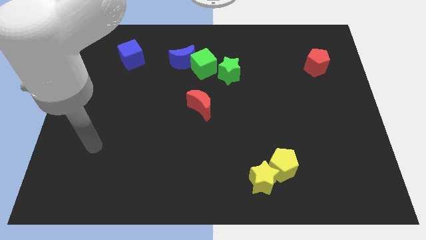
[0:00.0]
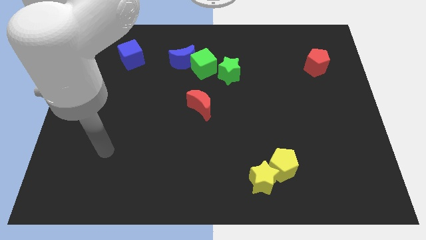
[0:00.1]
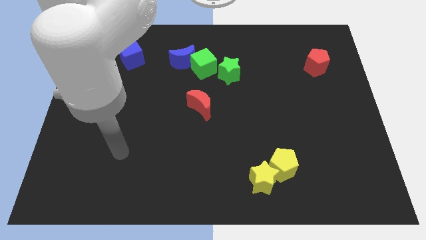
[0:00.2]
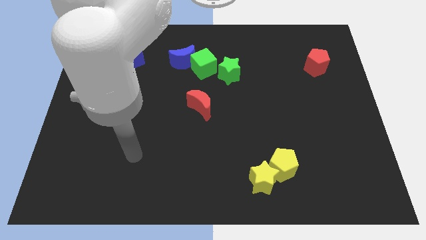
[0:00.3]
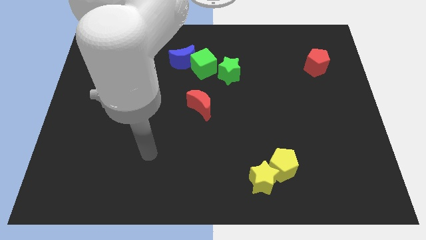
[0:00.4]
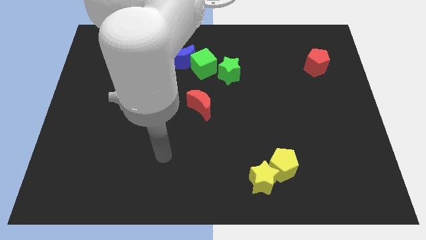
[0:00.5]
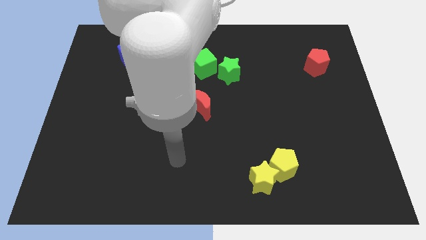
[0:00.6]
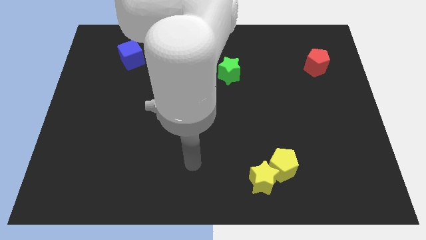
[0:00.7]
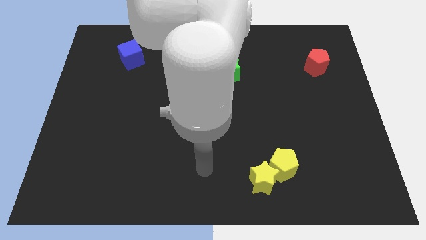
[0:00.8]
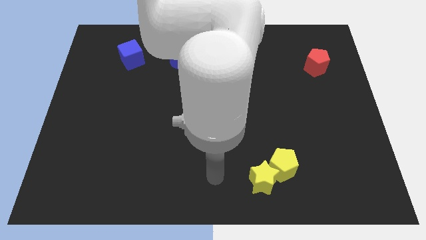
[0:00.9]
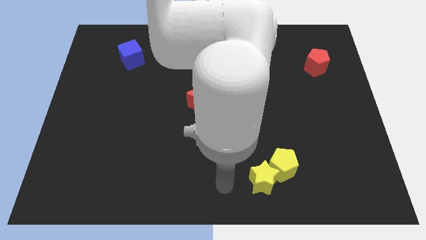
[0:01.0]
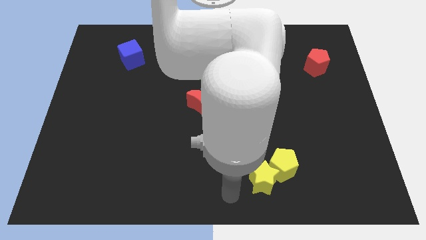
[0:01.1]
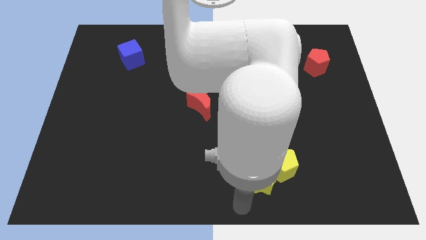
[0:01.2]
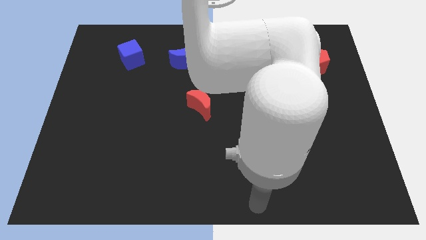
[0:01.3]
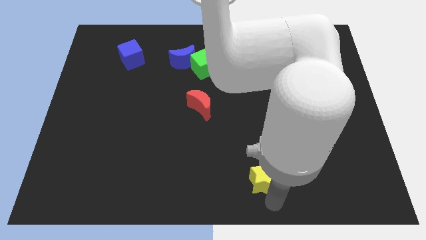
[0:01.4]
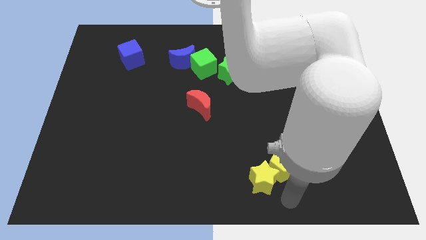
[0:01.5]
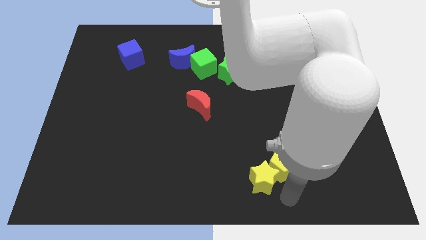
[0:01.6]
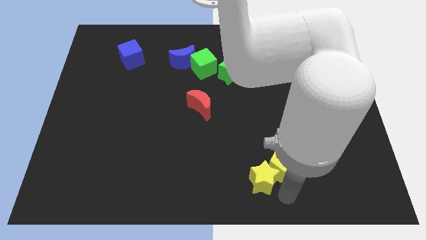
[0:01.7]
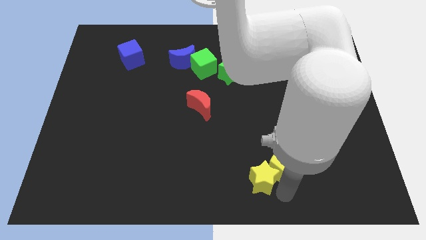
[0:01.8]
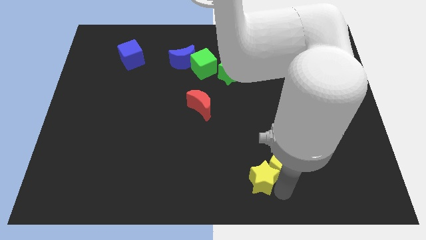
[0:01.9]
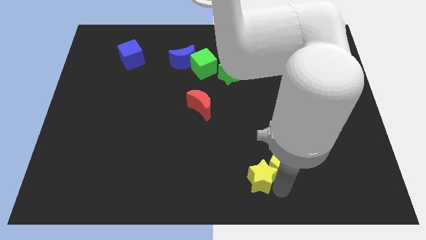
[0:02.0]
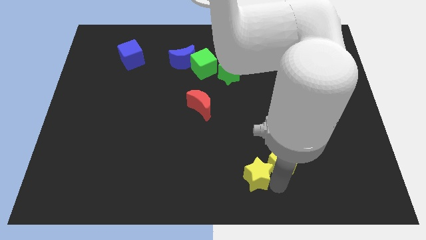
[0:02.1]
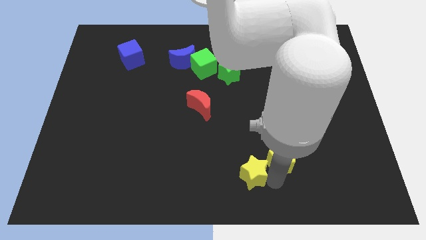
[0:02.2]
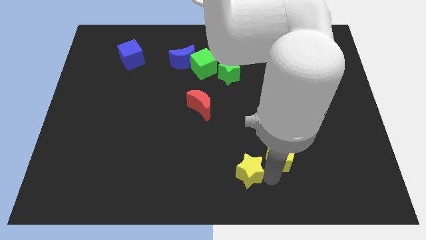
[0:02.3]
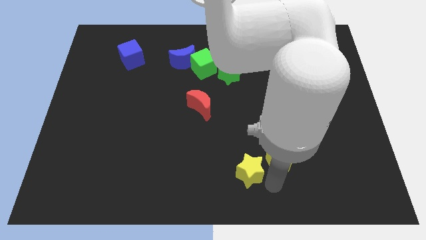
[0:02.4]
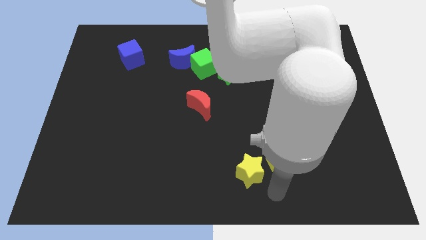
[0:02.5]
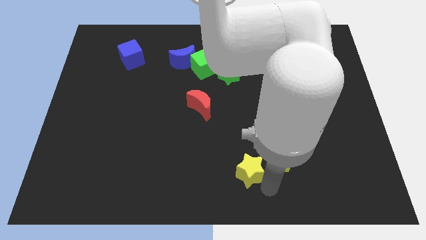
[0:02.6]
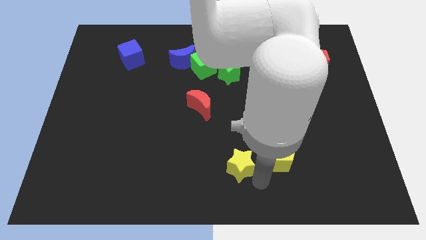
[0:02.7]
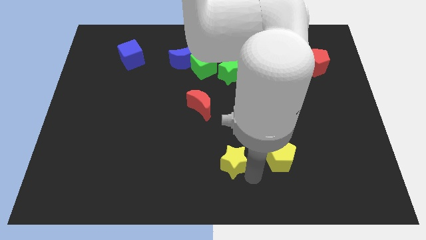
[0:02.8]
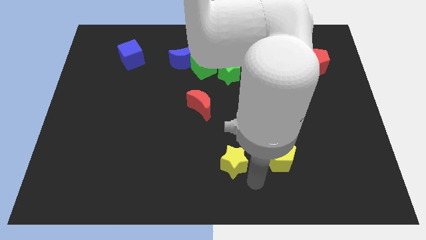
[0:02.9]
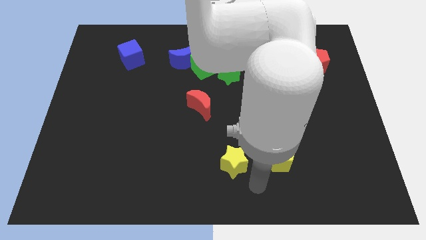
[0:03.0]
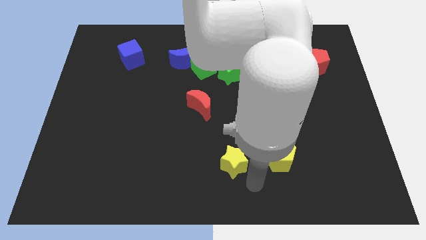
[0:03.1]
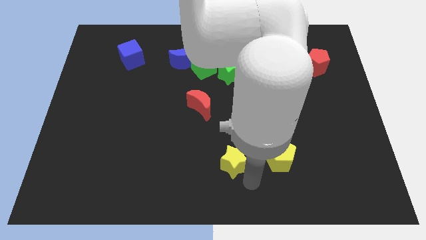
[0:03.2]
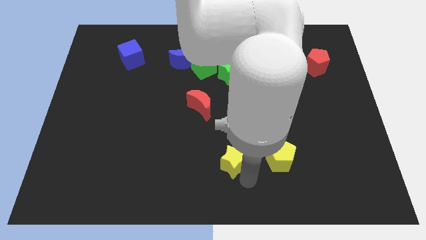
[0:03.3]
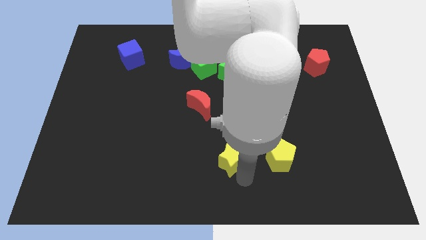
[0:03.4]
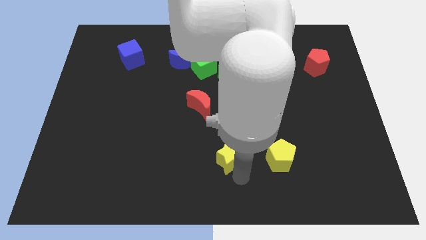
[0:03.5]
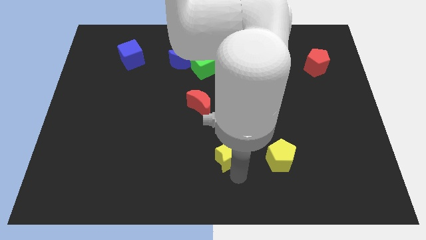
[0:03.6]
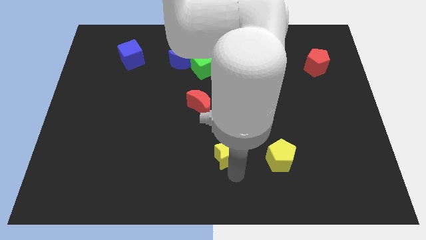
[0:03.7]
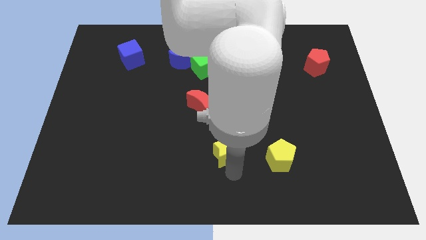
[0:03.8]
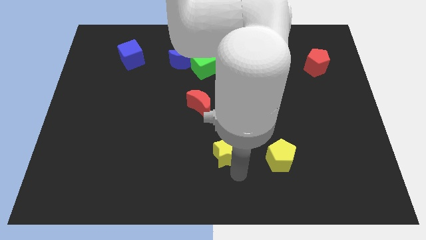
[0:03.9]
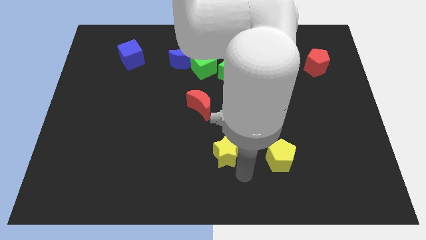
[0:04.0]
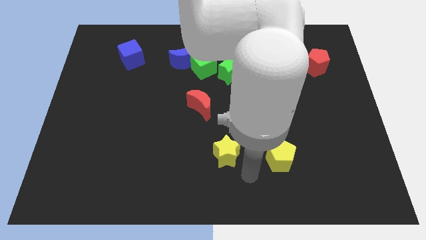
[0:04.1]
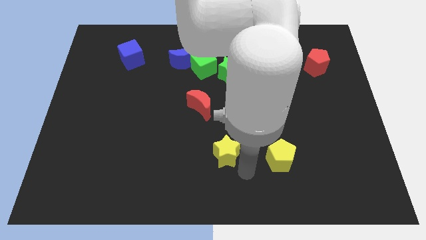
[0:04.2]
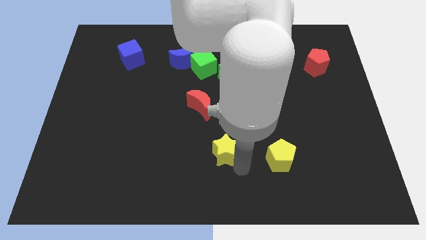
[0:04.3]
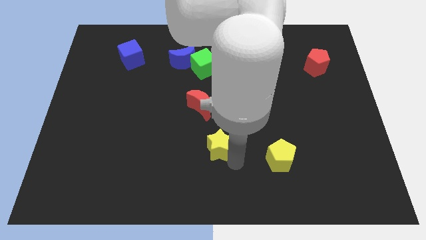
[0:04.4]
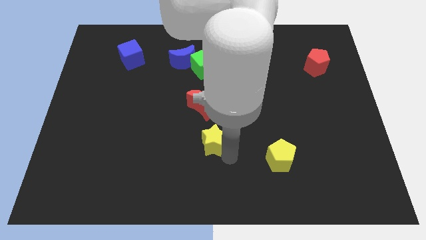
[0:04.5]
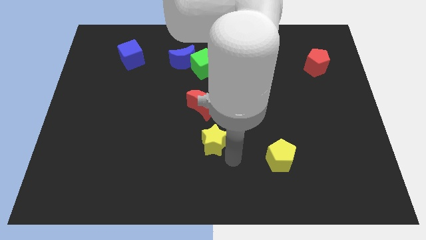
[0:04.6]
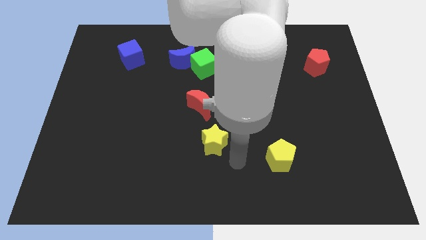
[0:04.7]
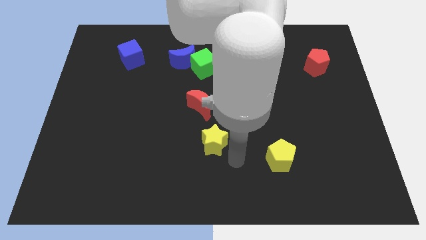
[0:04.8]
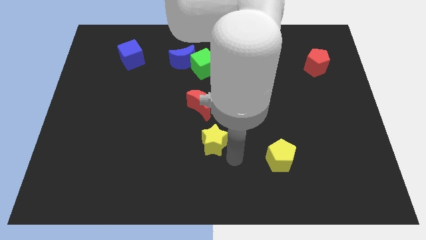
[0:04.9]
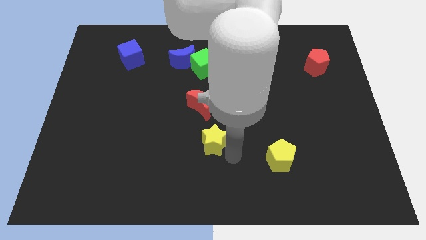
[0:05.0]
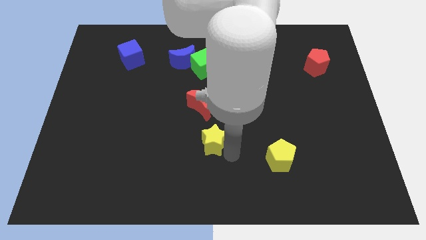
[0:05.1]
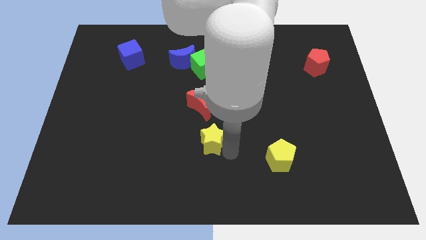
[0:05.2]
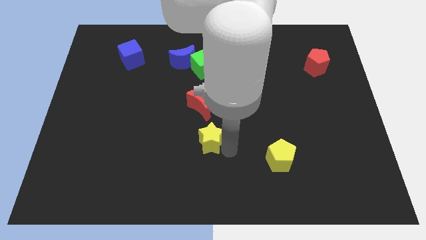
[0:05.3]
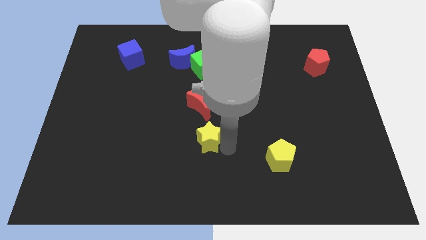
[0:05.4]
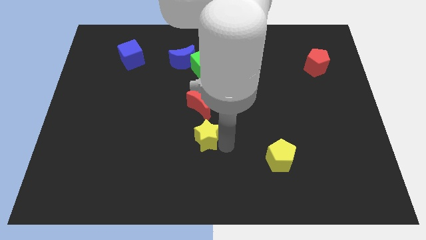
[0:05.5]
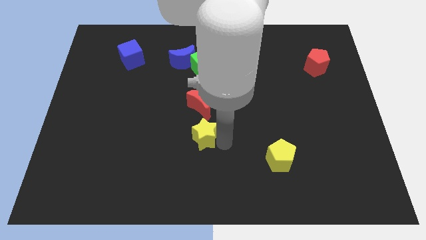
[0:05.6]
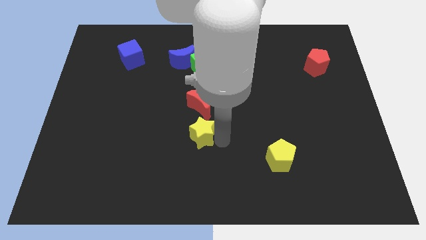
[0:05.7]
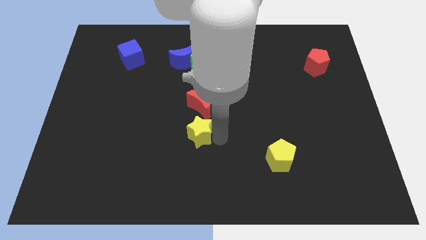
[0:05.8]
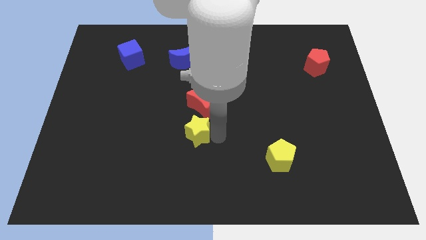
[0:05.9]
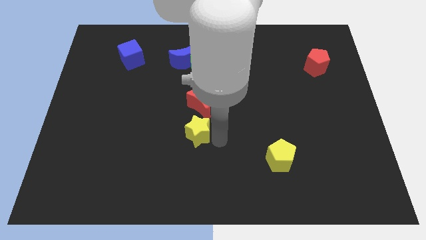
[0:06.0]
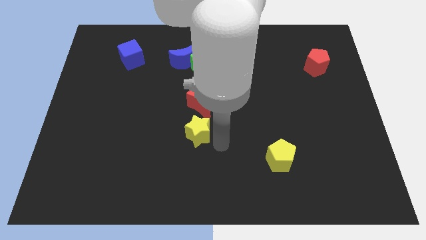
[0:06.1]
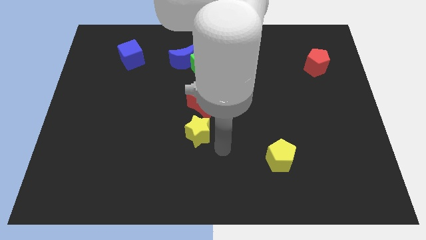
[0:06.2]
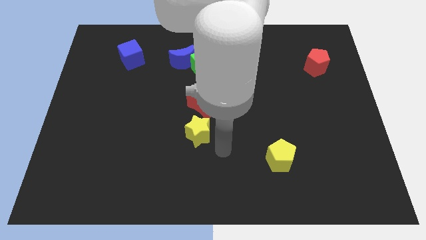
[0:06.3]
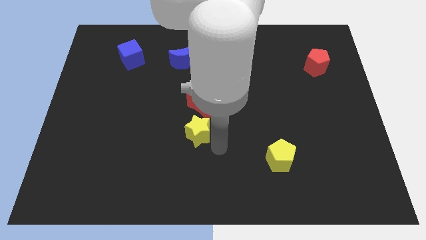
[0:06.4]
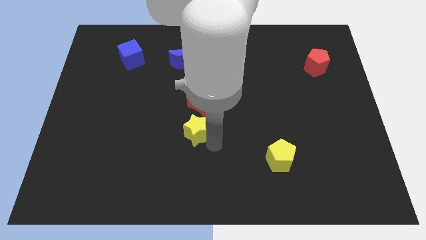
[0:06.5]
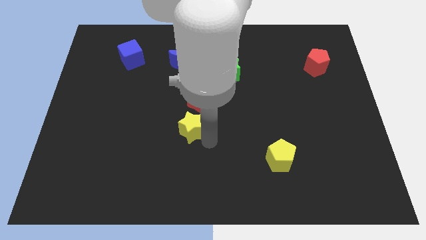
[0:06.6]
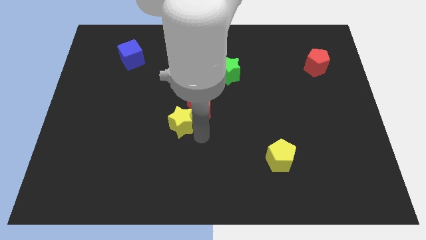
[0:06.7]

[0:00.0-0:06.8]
push the yellow star up and then to the left

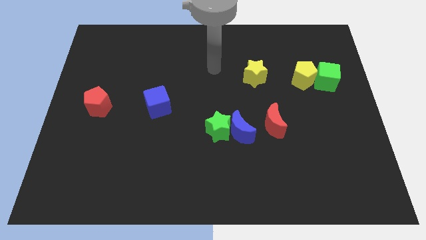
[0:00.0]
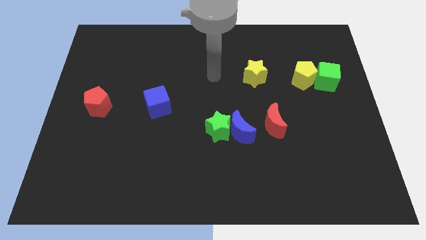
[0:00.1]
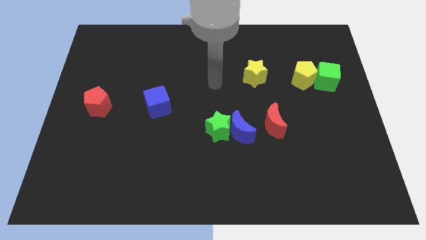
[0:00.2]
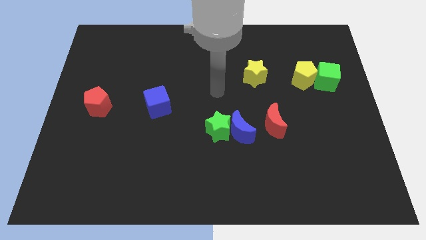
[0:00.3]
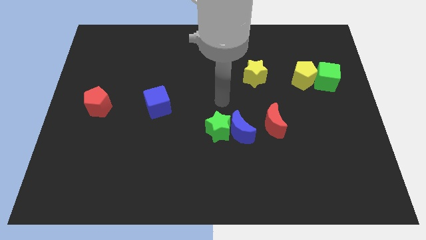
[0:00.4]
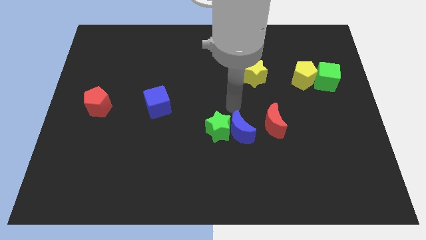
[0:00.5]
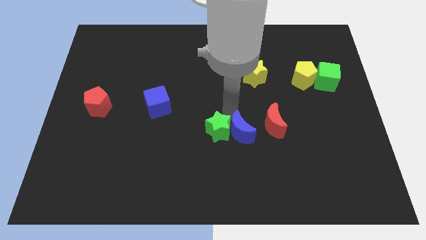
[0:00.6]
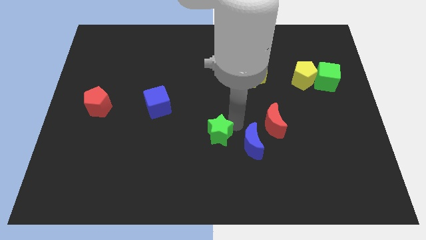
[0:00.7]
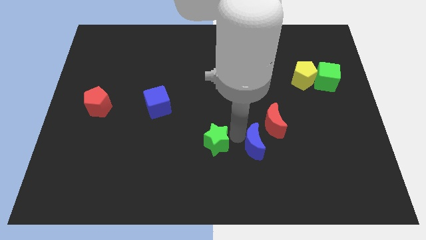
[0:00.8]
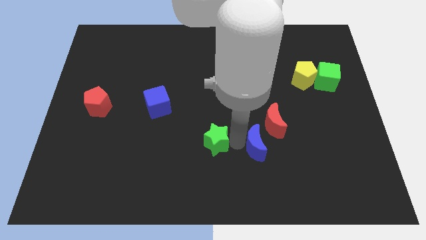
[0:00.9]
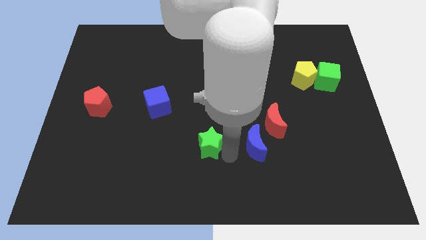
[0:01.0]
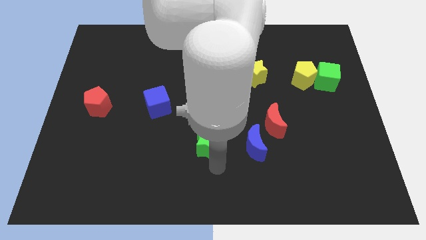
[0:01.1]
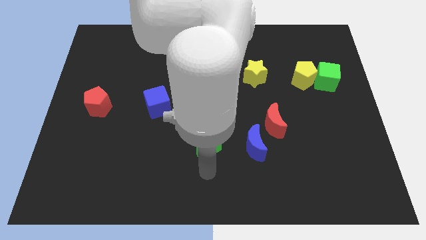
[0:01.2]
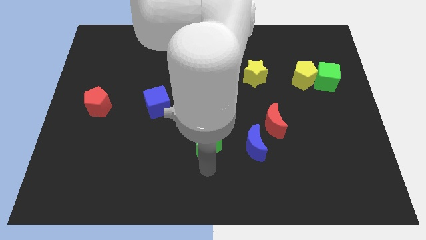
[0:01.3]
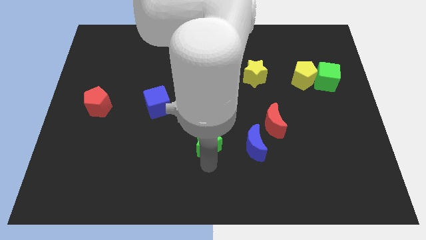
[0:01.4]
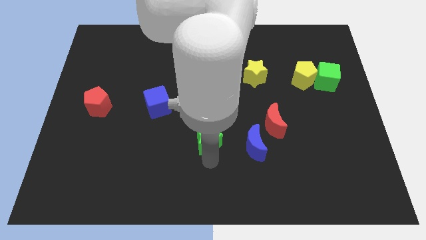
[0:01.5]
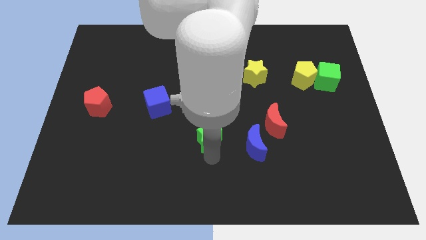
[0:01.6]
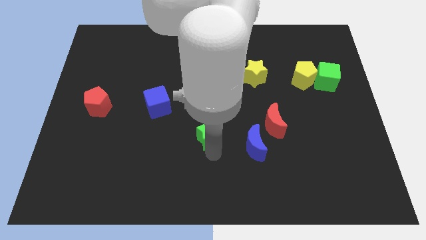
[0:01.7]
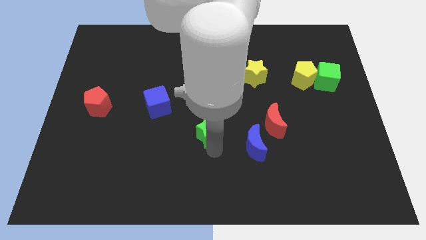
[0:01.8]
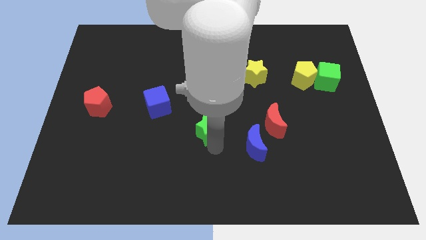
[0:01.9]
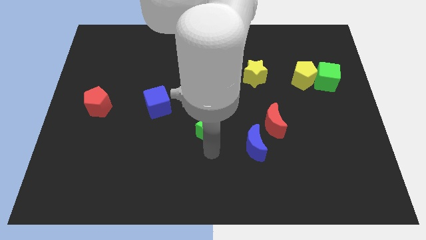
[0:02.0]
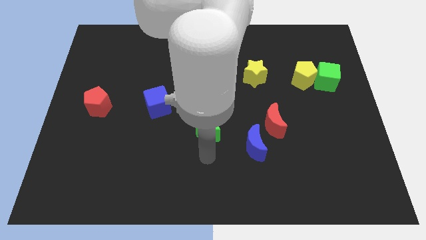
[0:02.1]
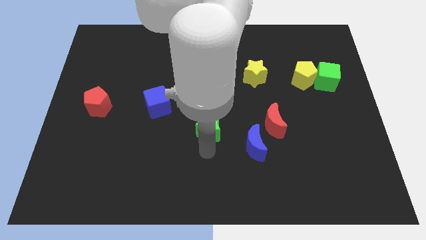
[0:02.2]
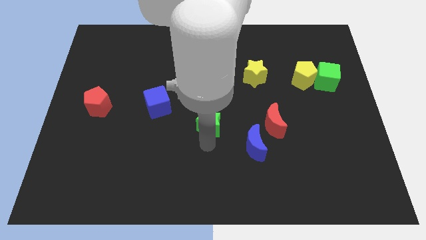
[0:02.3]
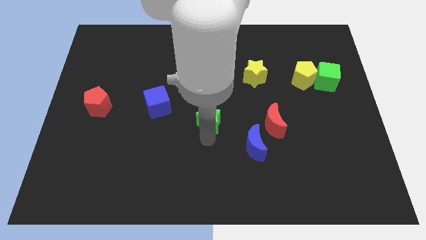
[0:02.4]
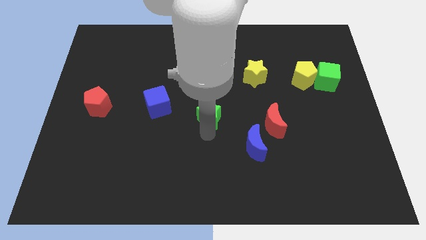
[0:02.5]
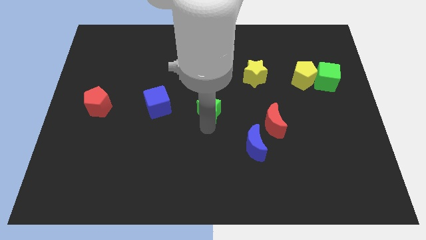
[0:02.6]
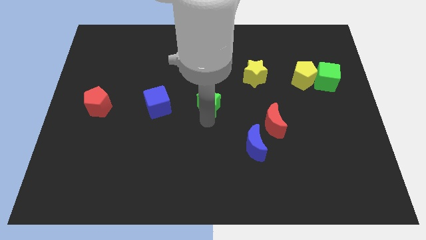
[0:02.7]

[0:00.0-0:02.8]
slide the green star slightly up
